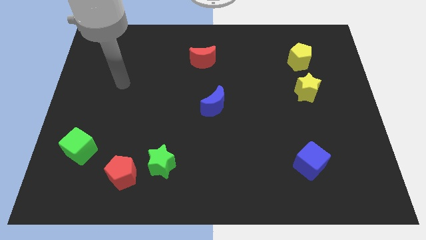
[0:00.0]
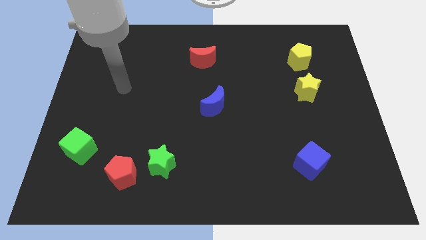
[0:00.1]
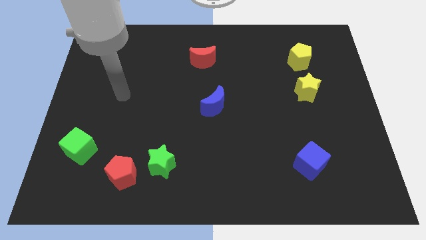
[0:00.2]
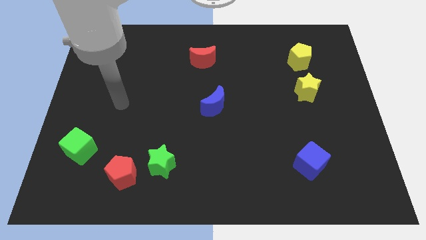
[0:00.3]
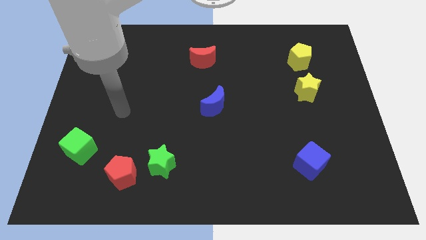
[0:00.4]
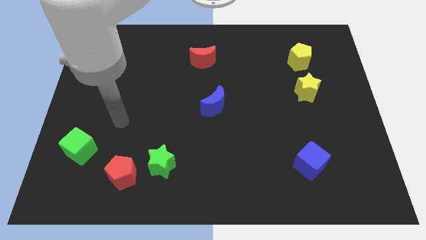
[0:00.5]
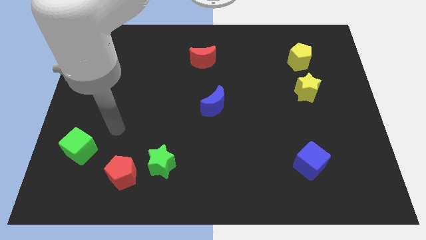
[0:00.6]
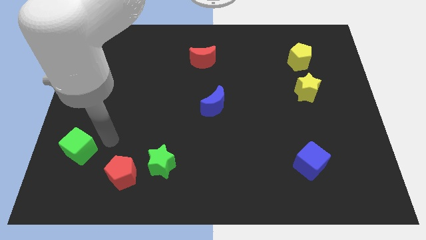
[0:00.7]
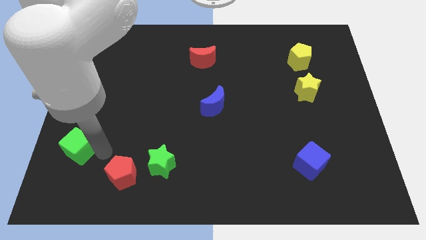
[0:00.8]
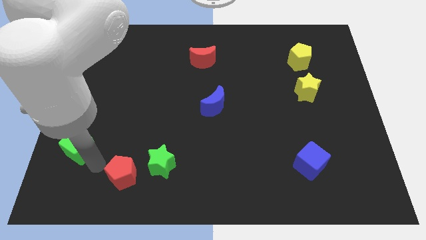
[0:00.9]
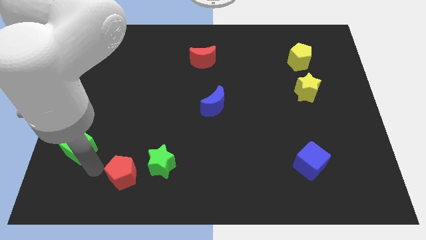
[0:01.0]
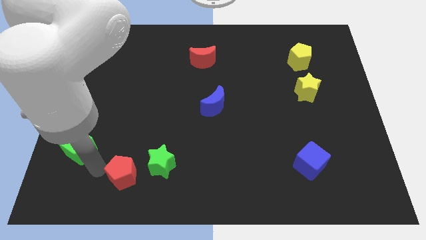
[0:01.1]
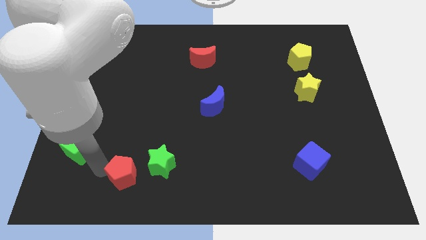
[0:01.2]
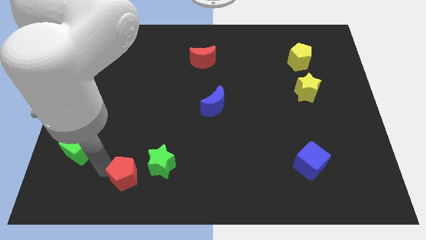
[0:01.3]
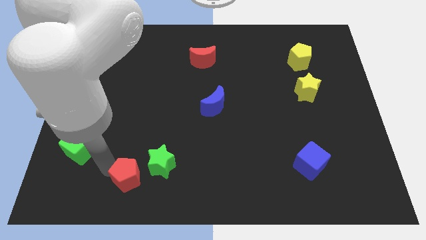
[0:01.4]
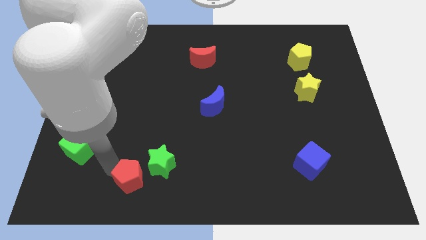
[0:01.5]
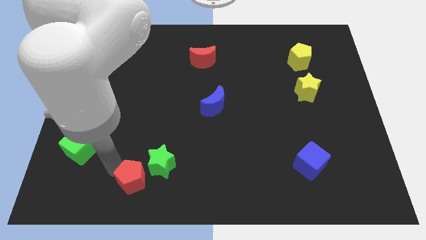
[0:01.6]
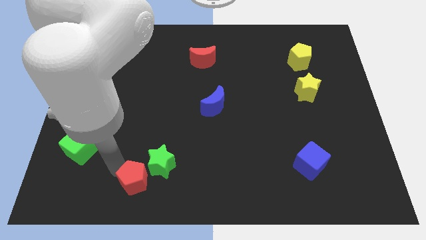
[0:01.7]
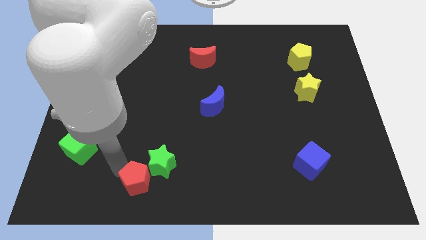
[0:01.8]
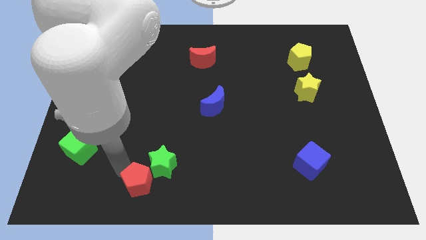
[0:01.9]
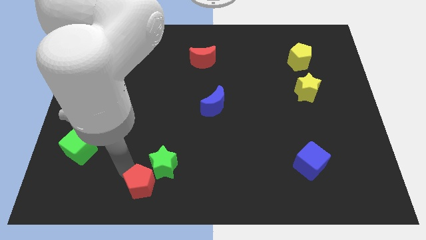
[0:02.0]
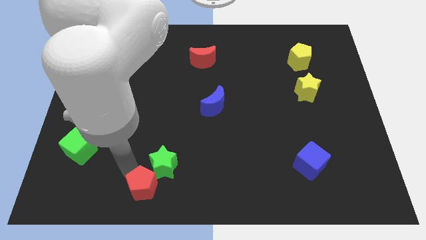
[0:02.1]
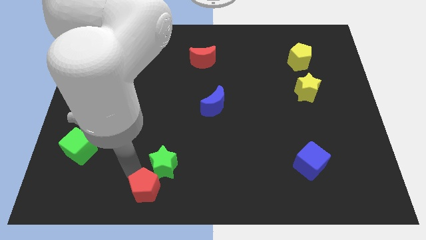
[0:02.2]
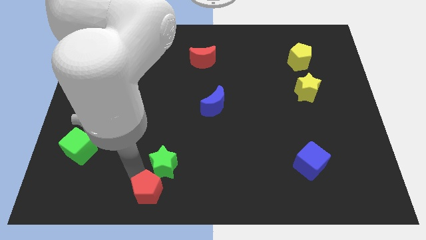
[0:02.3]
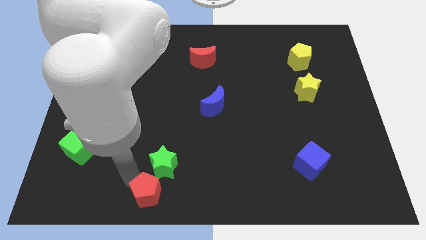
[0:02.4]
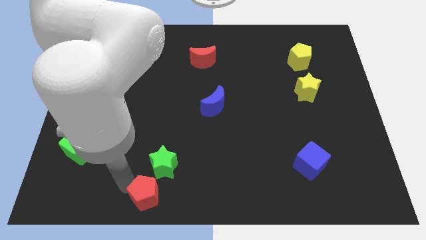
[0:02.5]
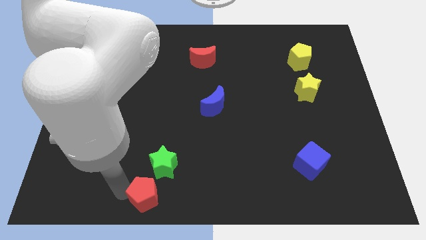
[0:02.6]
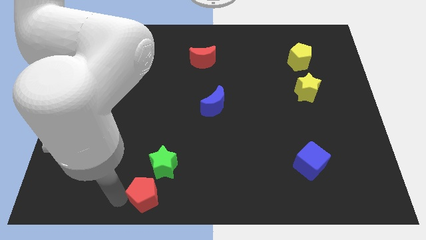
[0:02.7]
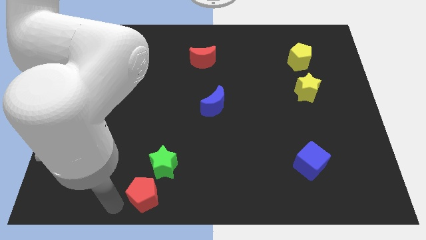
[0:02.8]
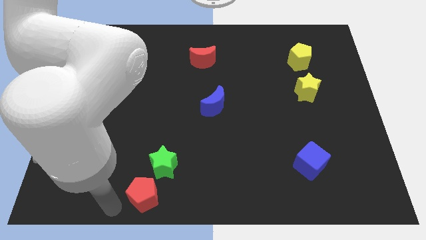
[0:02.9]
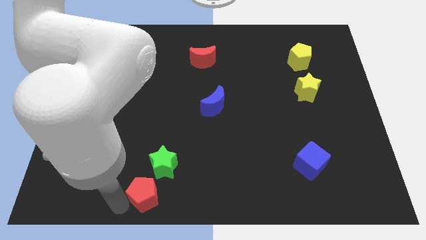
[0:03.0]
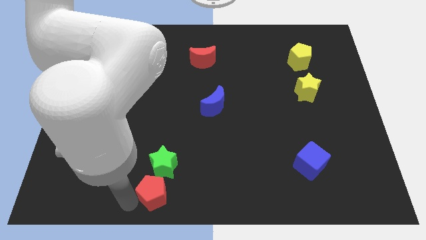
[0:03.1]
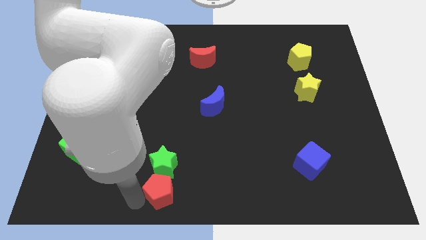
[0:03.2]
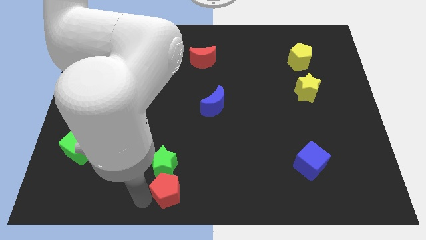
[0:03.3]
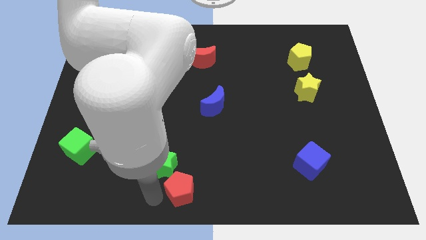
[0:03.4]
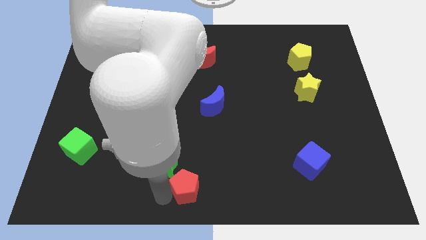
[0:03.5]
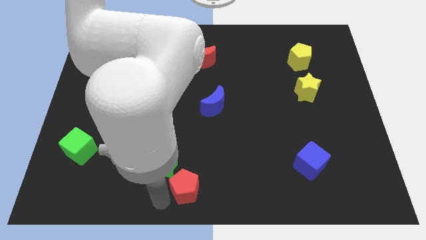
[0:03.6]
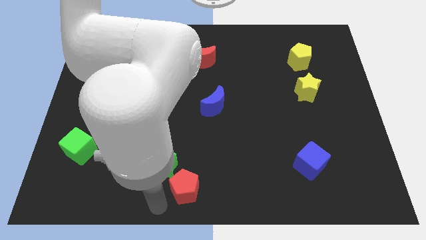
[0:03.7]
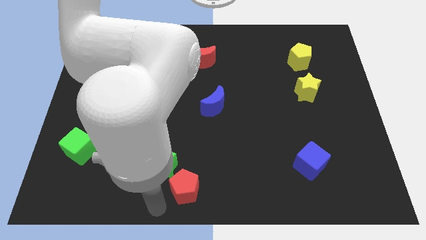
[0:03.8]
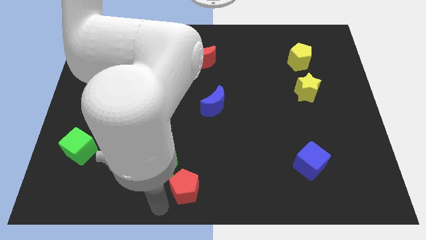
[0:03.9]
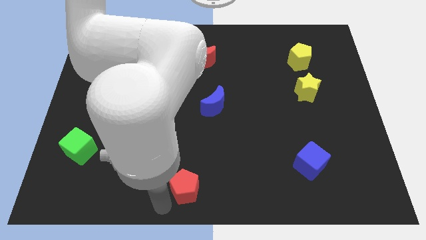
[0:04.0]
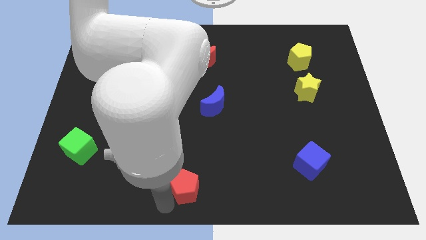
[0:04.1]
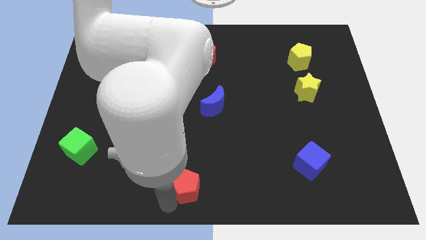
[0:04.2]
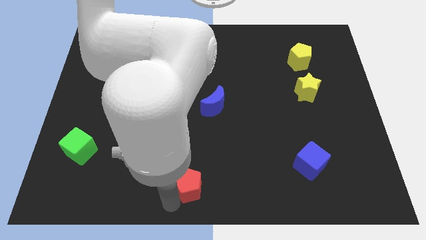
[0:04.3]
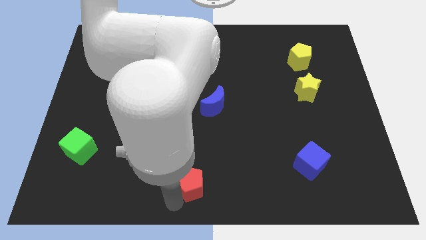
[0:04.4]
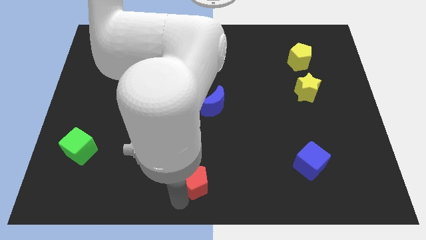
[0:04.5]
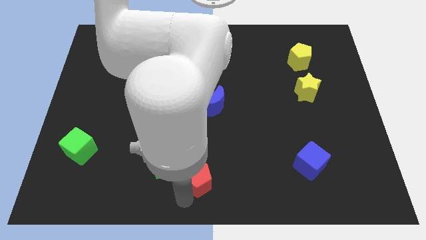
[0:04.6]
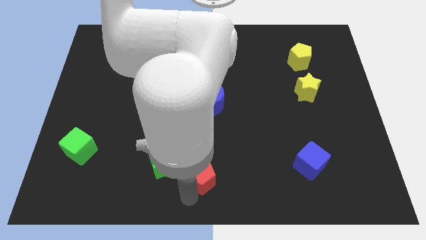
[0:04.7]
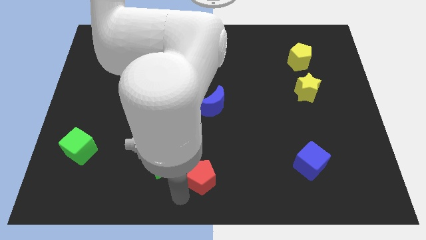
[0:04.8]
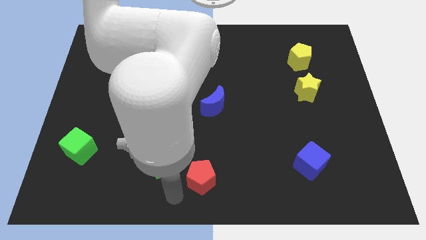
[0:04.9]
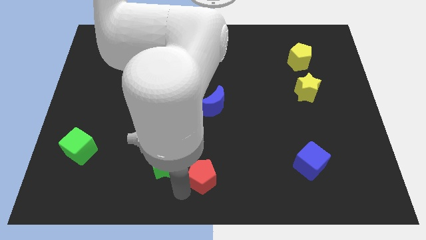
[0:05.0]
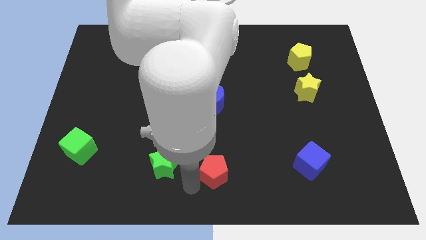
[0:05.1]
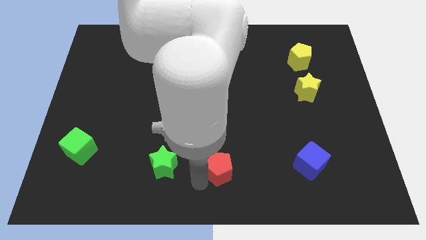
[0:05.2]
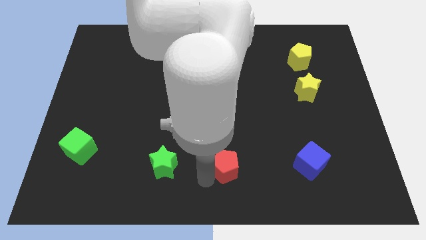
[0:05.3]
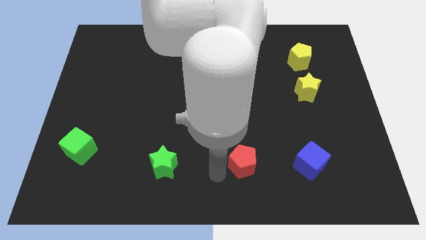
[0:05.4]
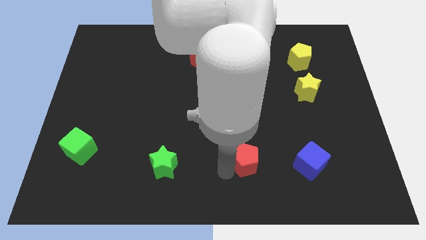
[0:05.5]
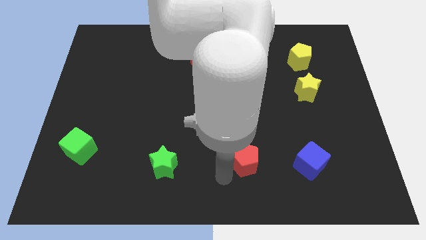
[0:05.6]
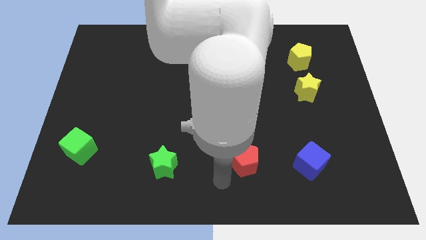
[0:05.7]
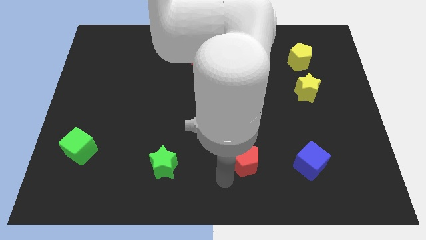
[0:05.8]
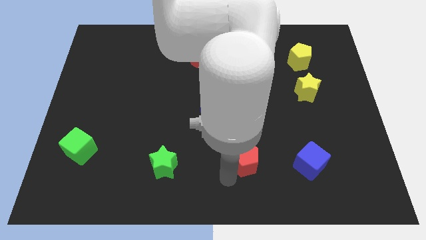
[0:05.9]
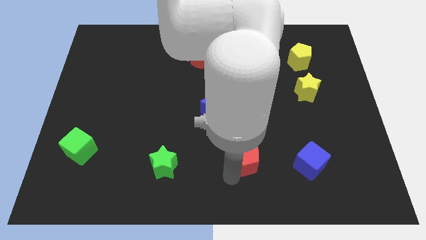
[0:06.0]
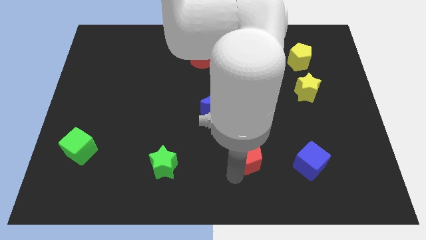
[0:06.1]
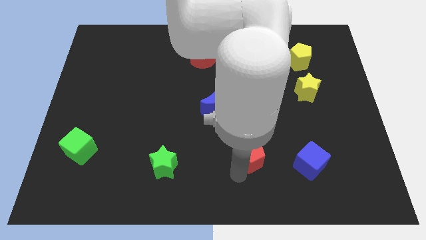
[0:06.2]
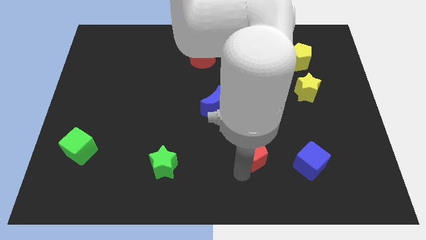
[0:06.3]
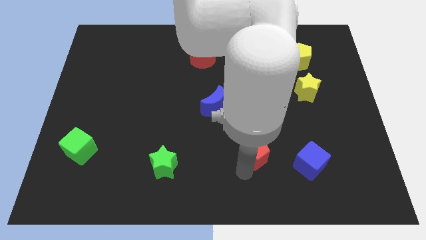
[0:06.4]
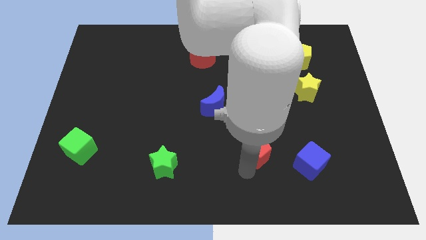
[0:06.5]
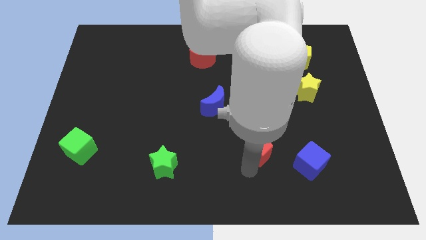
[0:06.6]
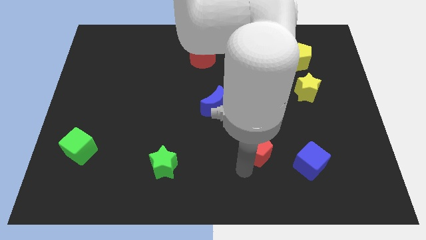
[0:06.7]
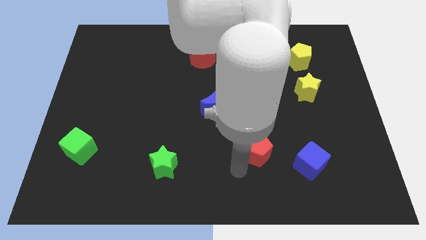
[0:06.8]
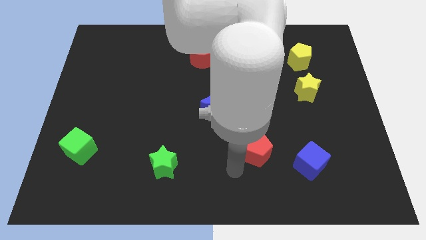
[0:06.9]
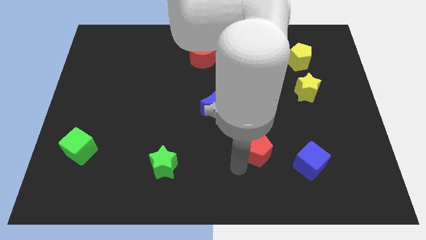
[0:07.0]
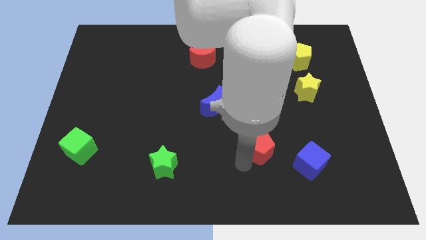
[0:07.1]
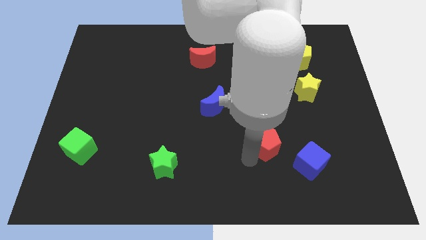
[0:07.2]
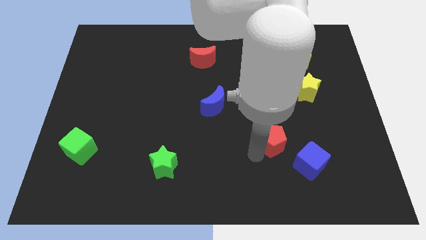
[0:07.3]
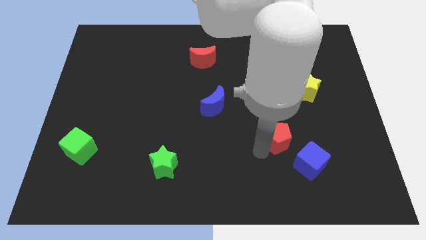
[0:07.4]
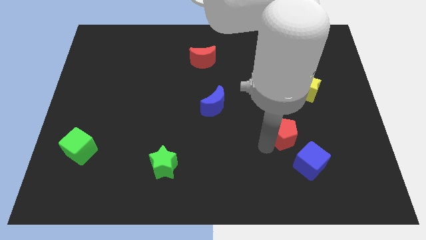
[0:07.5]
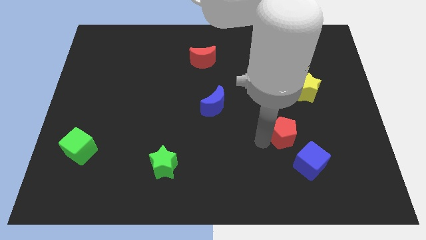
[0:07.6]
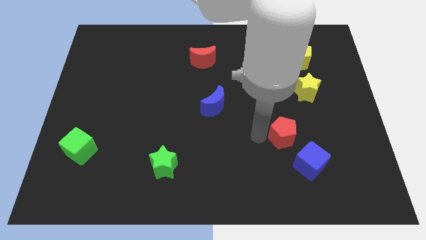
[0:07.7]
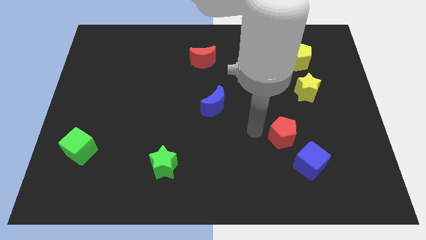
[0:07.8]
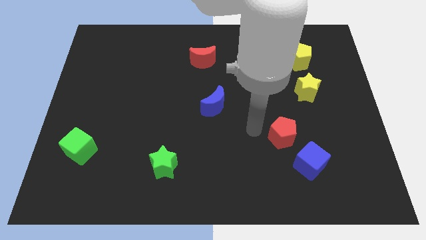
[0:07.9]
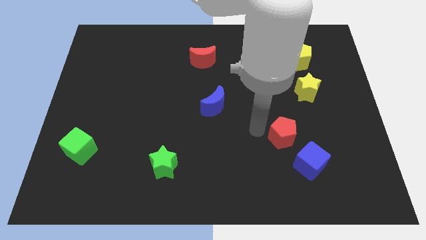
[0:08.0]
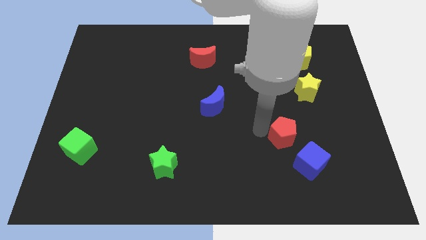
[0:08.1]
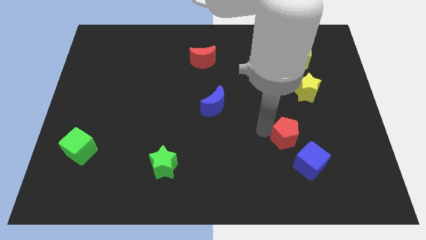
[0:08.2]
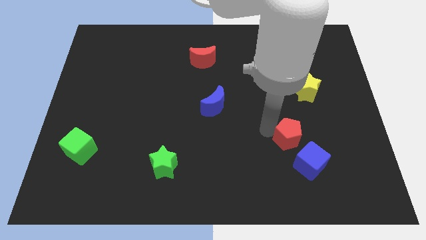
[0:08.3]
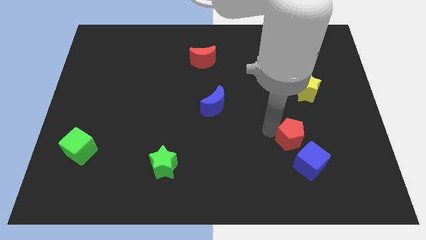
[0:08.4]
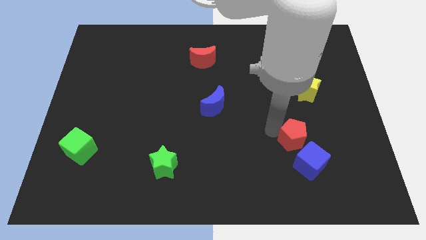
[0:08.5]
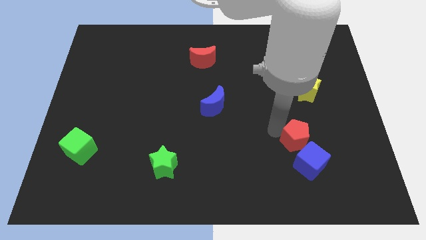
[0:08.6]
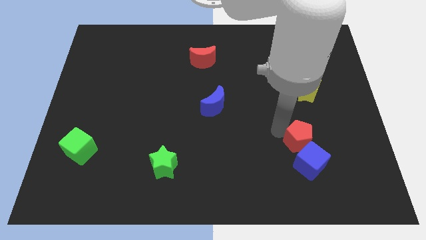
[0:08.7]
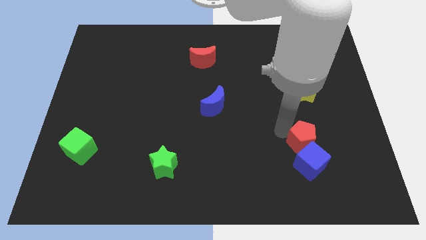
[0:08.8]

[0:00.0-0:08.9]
push the red pentagon to the top right of the blue cube
